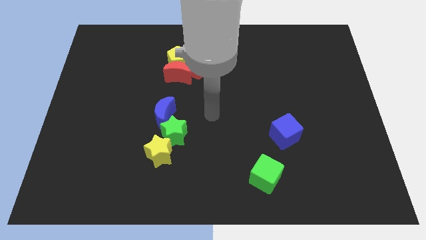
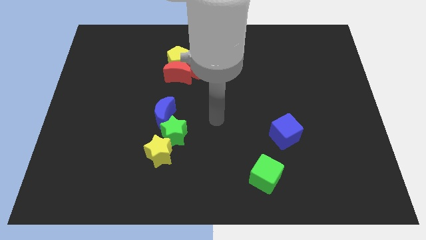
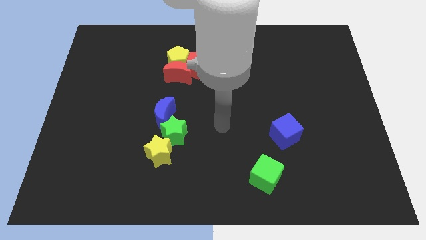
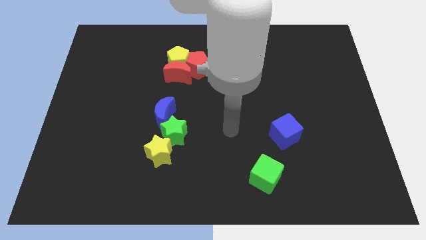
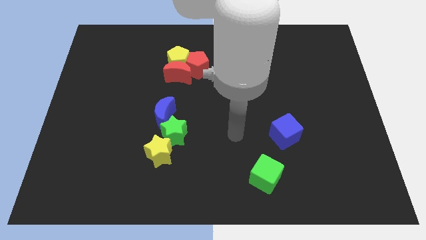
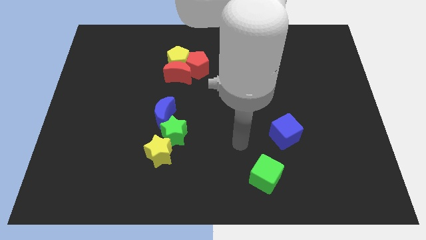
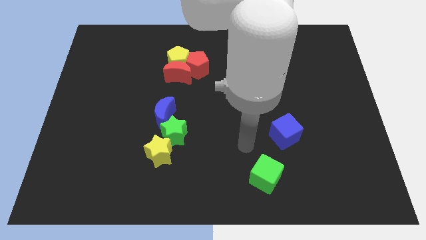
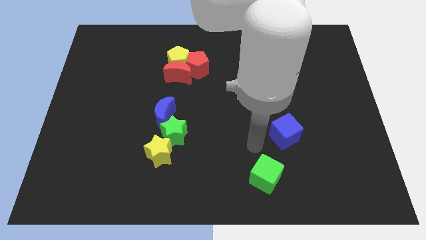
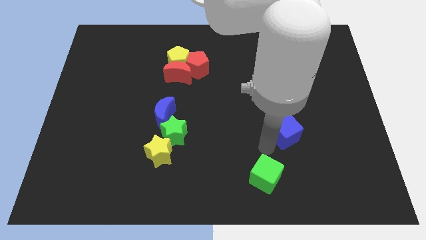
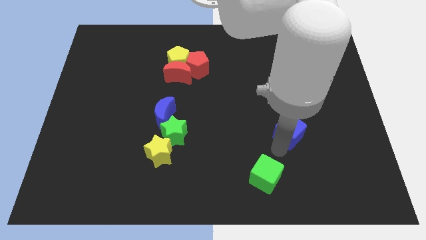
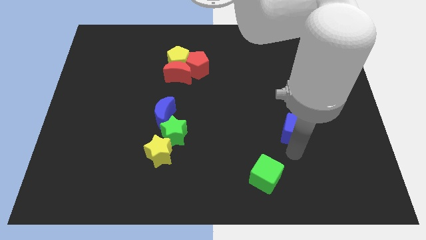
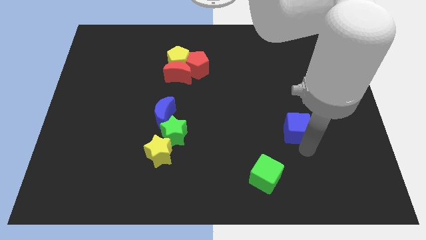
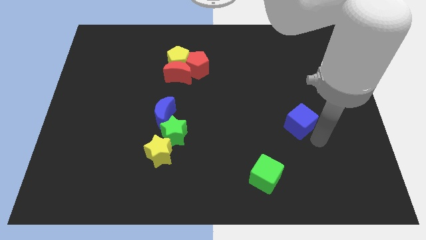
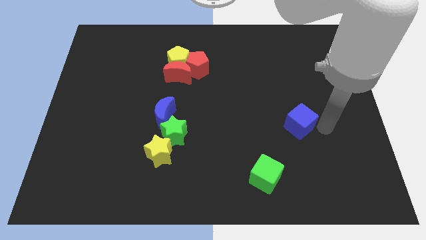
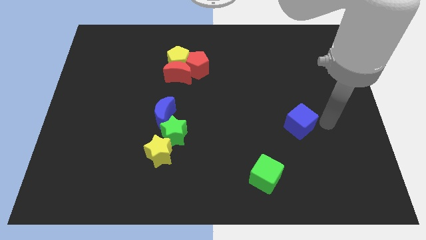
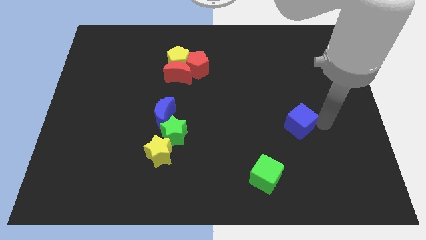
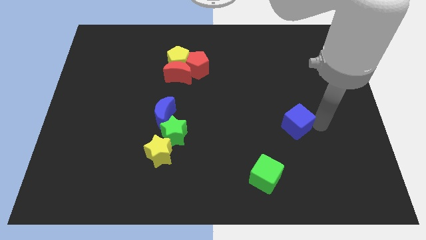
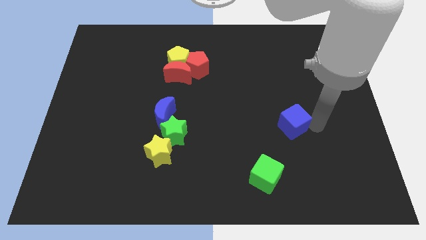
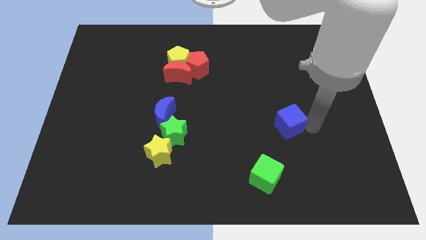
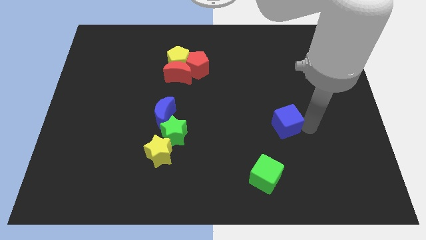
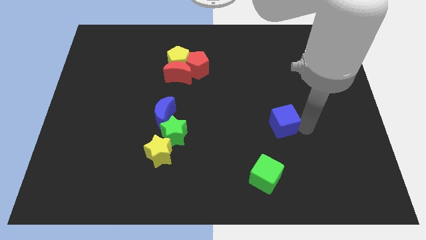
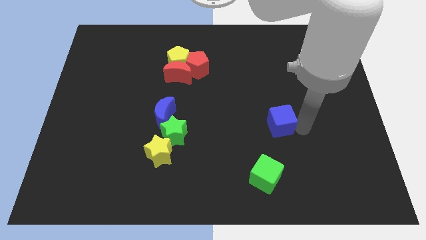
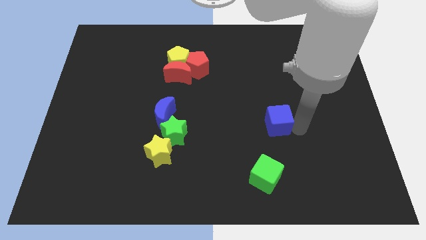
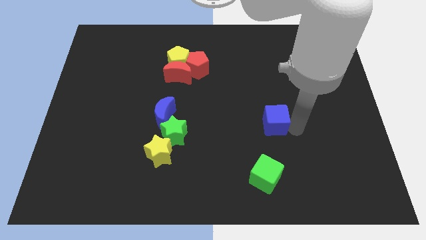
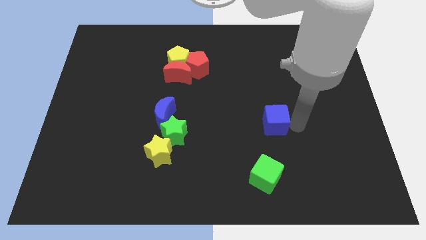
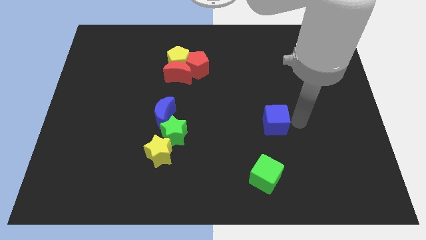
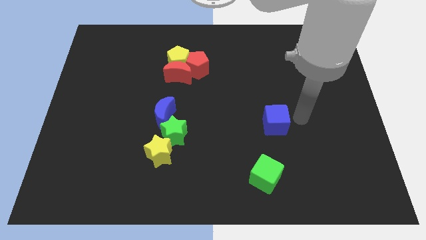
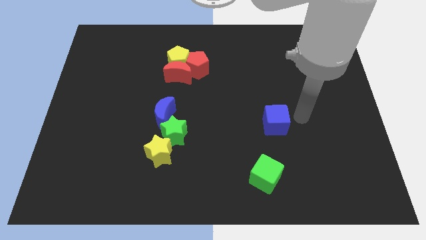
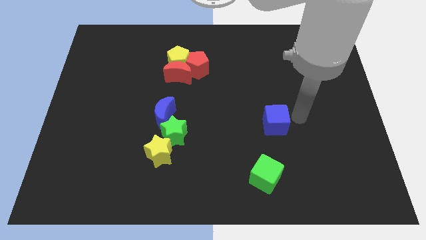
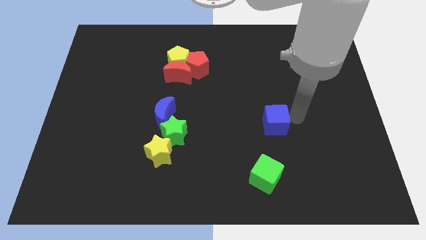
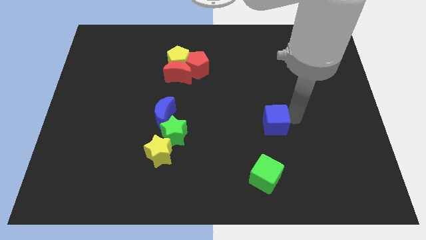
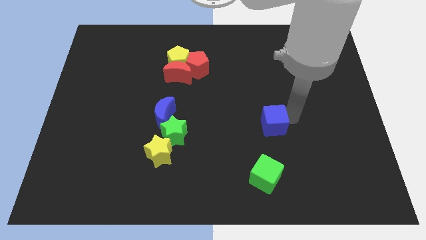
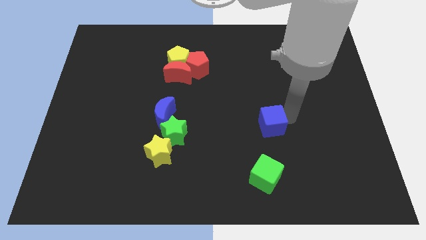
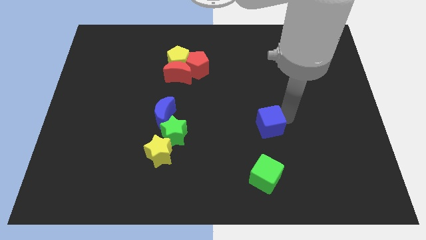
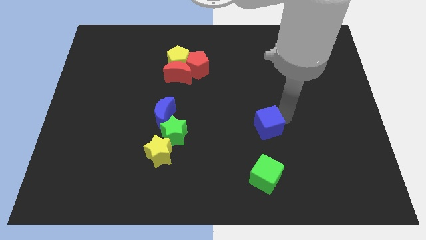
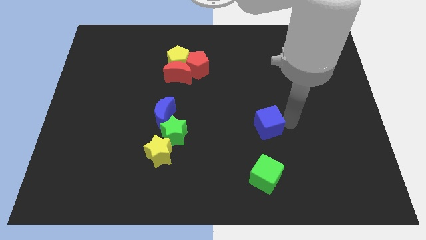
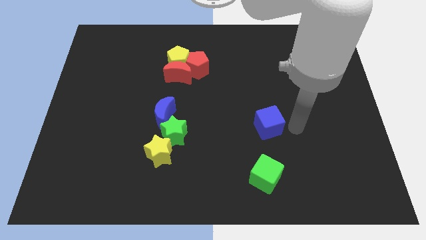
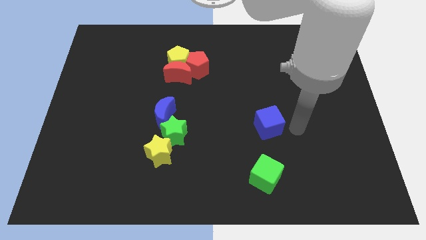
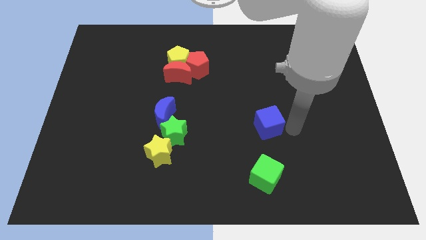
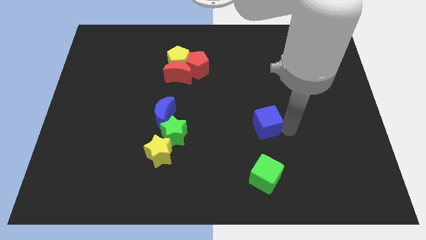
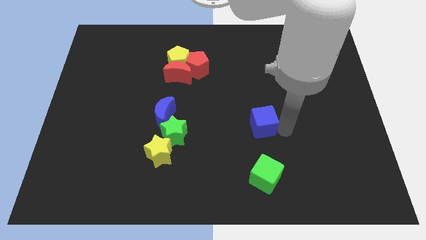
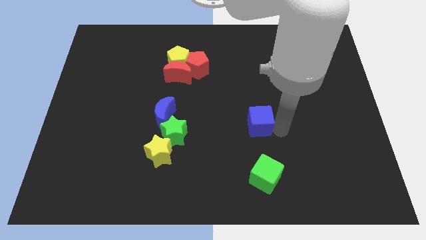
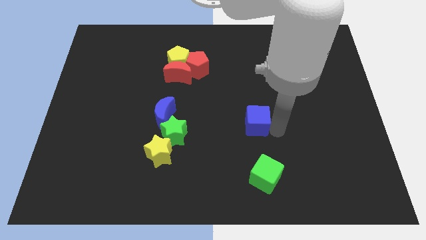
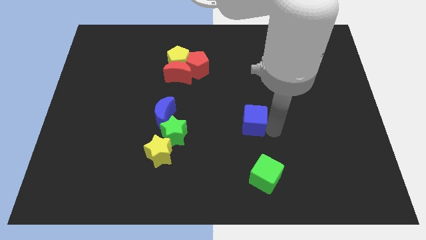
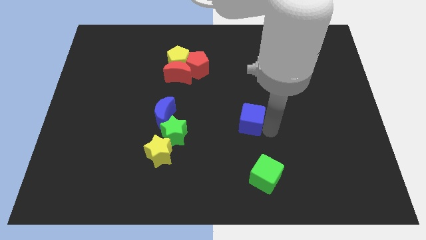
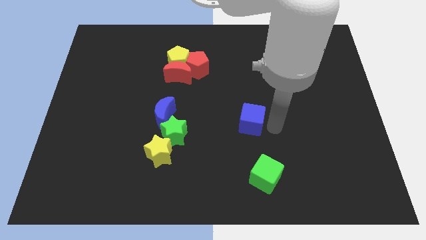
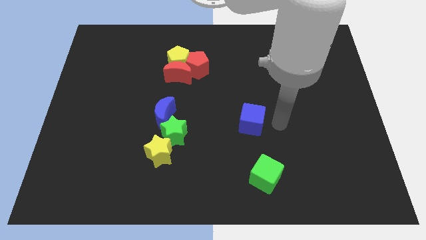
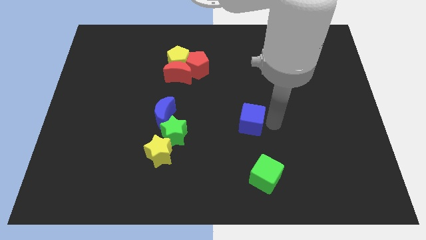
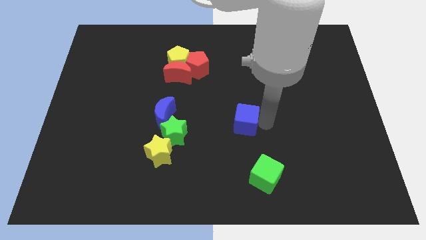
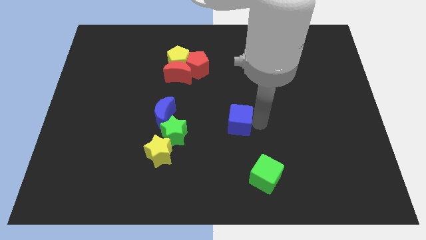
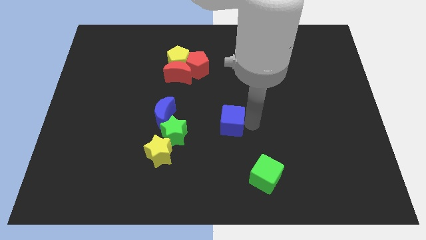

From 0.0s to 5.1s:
push the blue cube to the right side of the blue moon

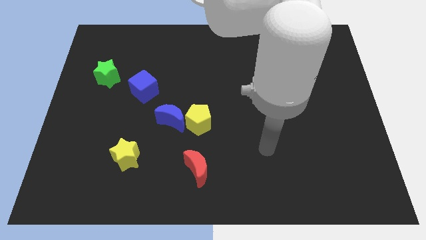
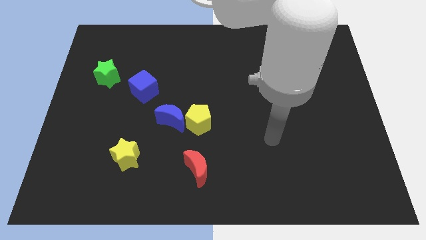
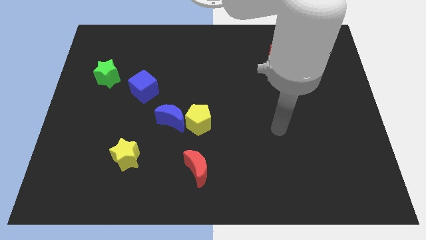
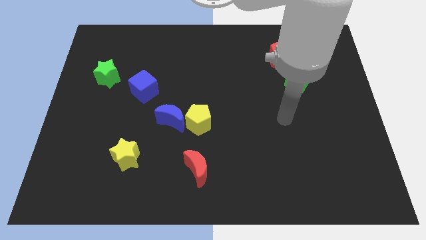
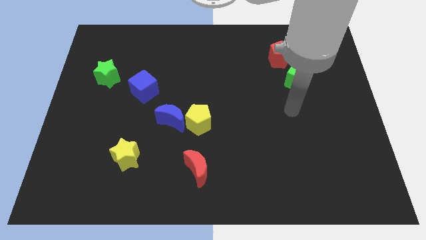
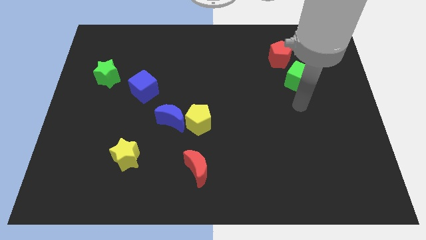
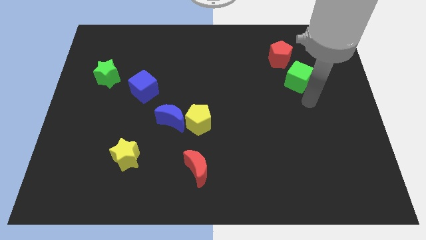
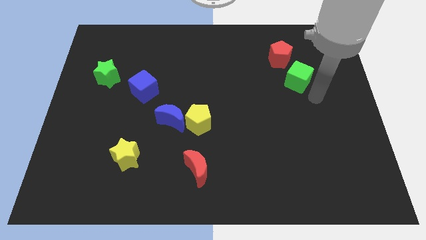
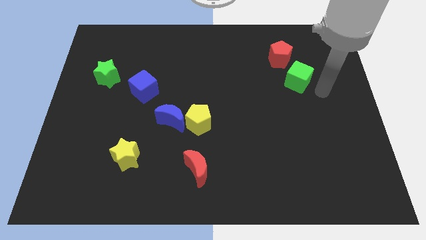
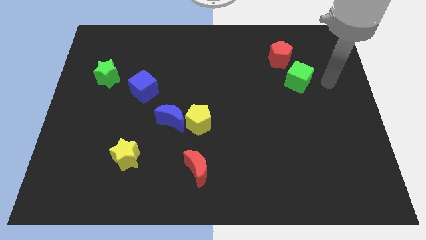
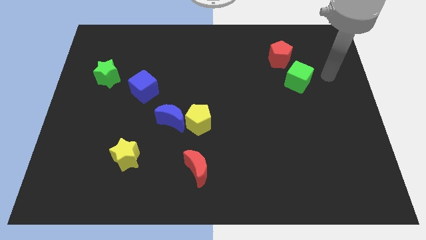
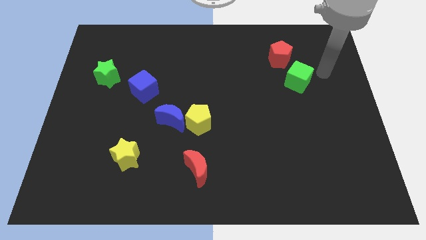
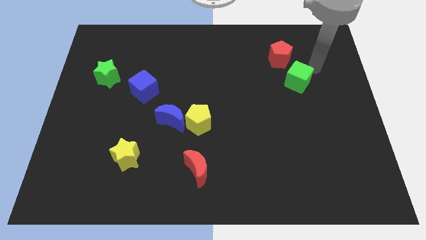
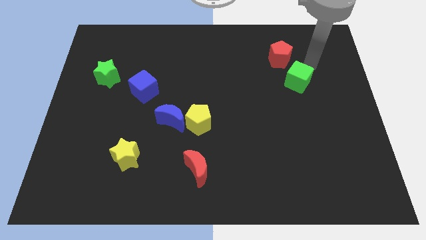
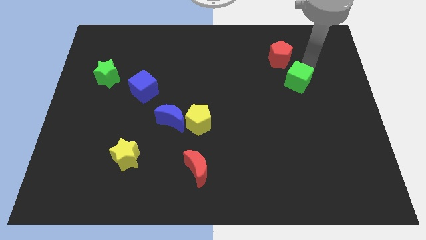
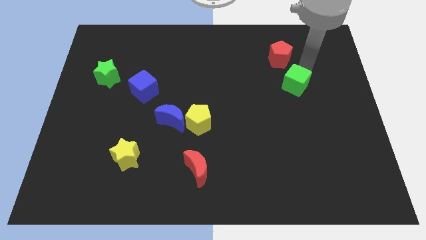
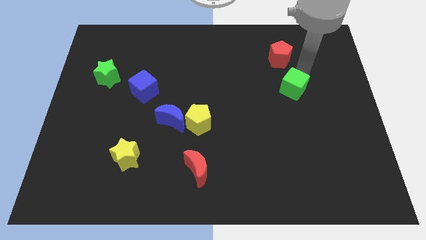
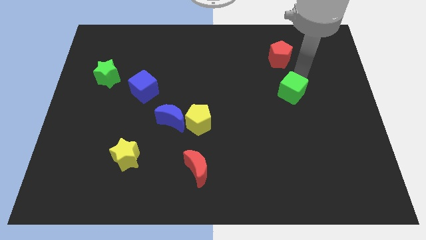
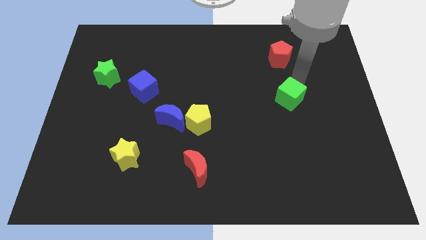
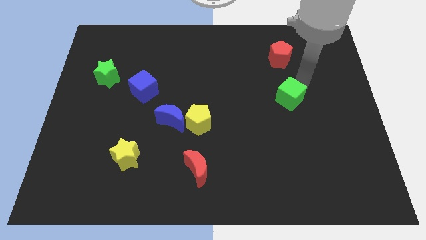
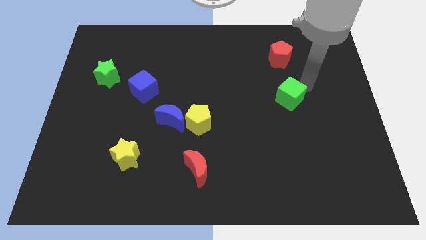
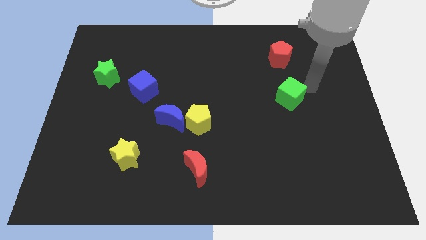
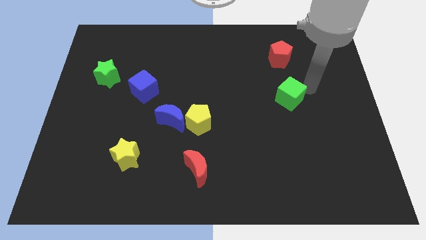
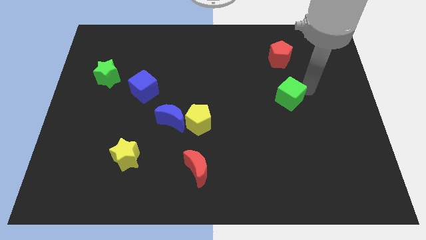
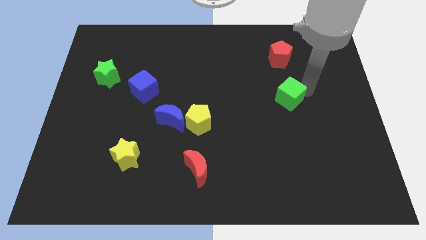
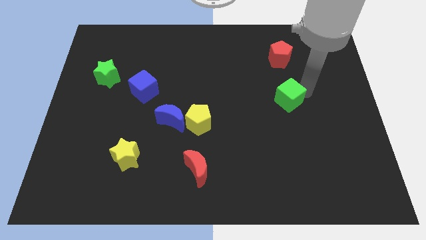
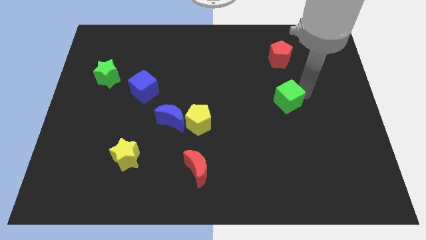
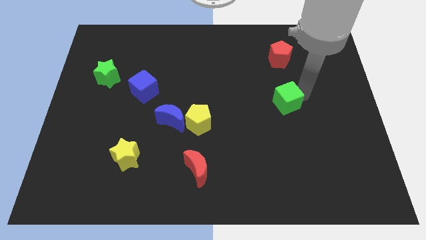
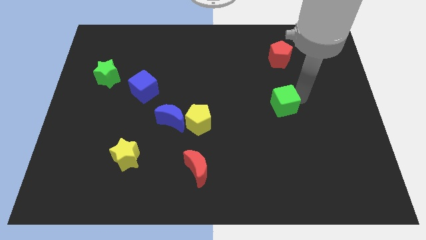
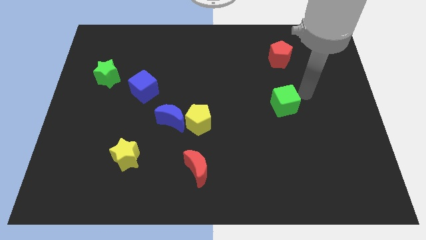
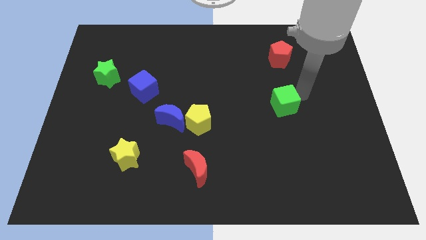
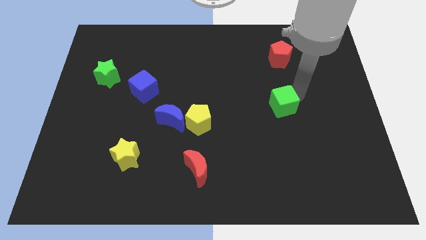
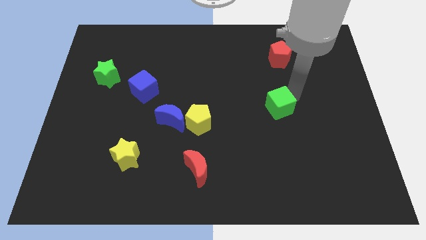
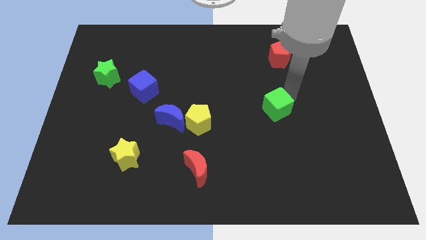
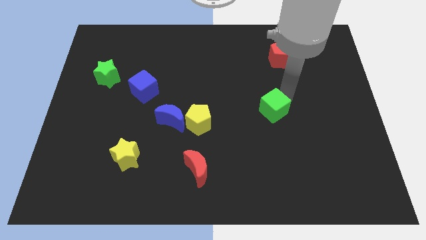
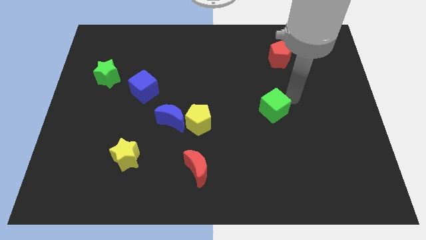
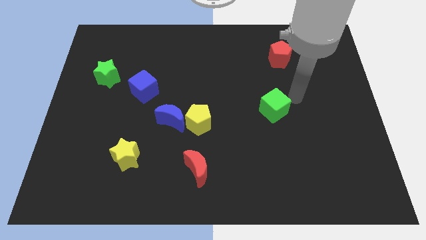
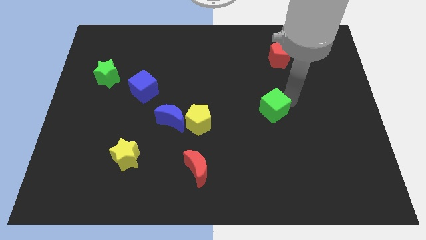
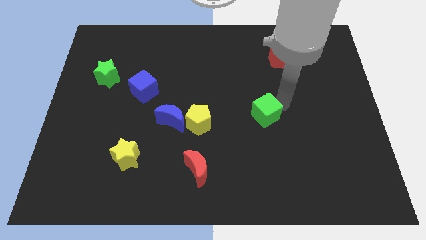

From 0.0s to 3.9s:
put the green cube just right of the yellow pentagon
